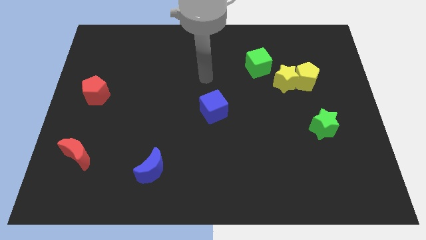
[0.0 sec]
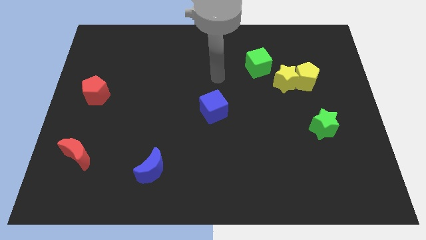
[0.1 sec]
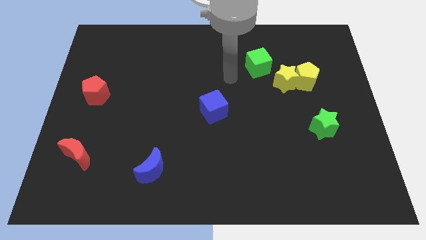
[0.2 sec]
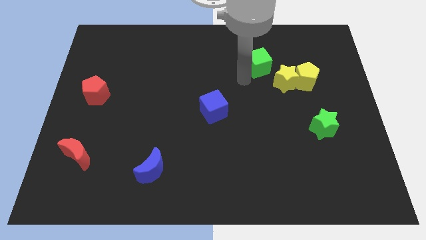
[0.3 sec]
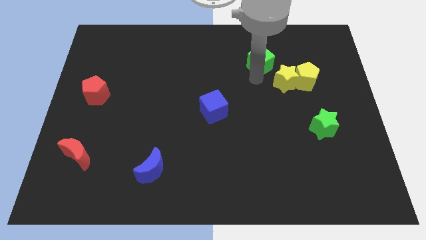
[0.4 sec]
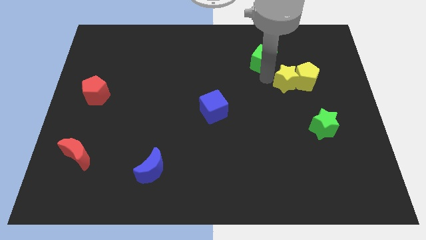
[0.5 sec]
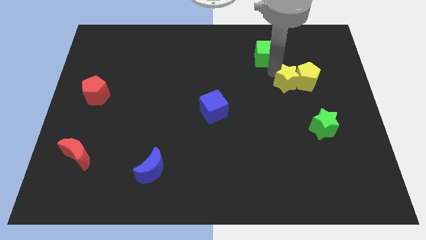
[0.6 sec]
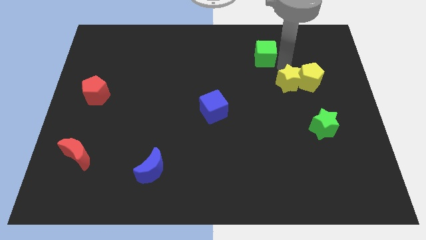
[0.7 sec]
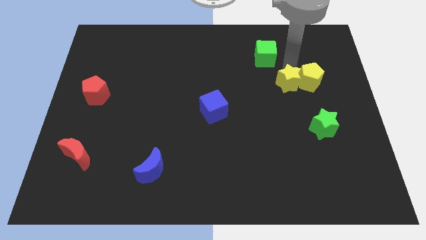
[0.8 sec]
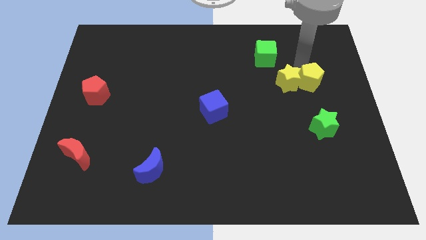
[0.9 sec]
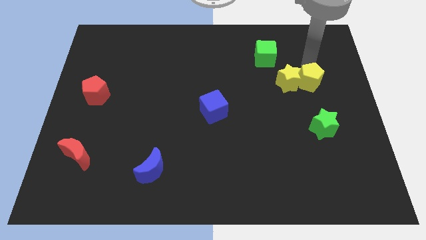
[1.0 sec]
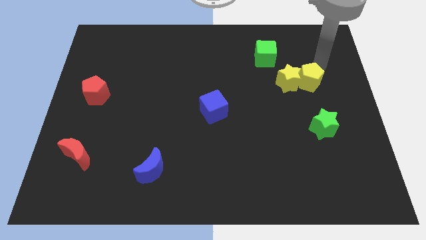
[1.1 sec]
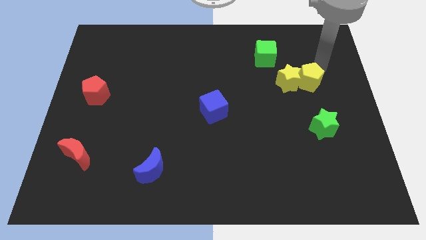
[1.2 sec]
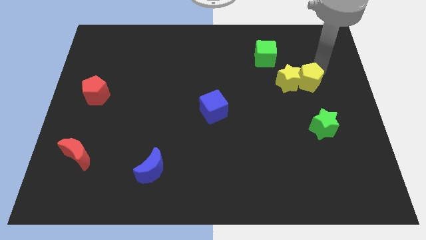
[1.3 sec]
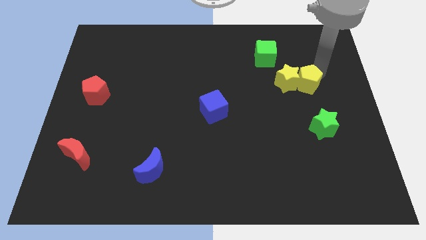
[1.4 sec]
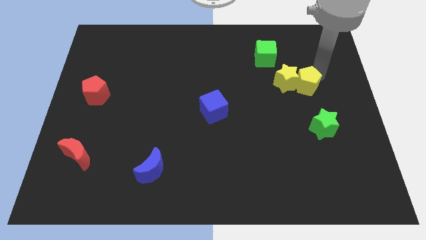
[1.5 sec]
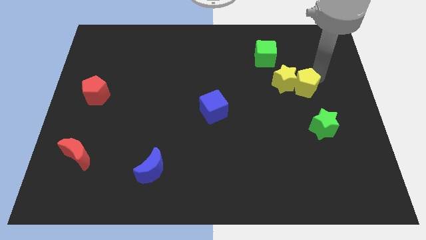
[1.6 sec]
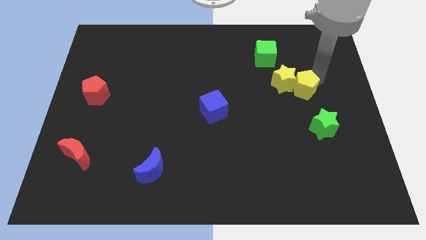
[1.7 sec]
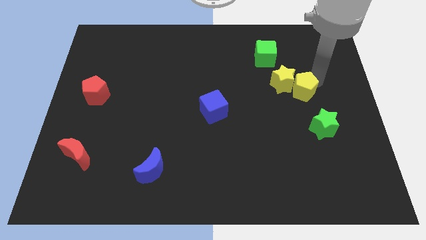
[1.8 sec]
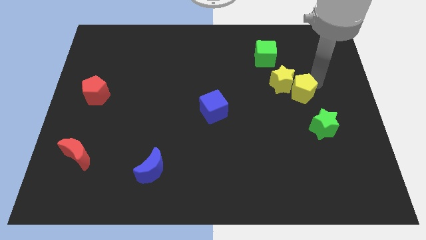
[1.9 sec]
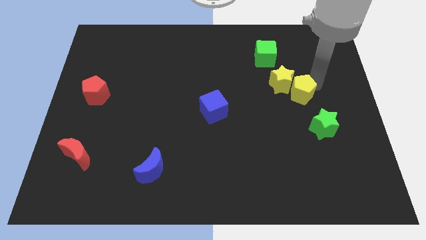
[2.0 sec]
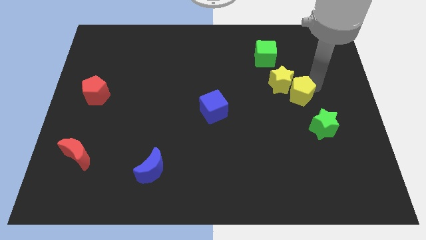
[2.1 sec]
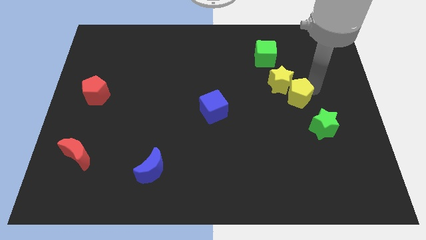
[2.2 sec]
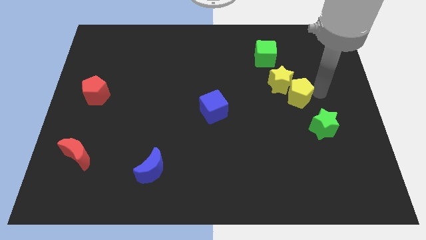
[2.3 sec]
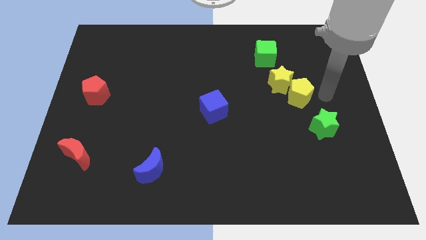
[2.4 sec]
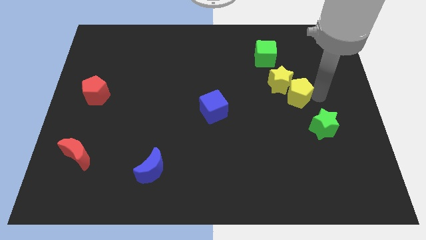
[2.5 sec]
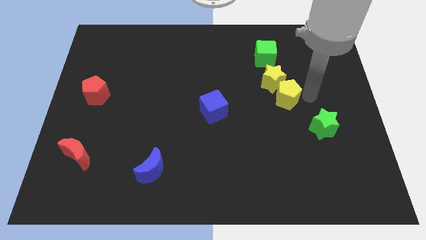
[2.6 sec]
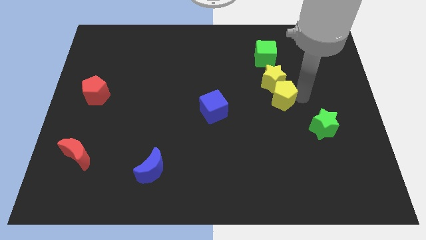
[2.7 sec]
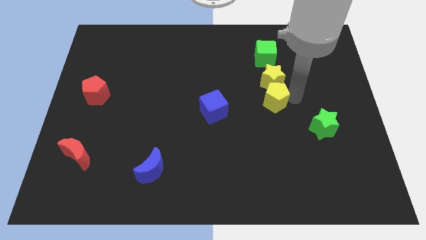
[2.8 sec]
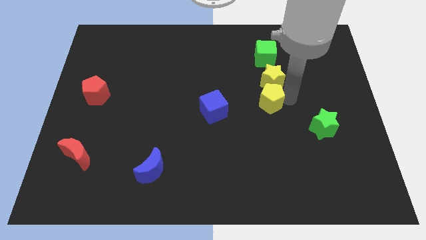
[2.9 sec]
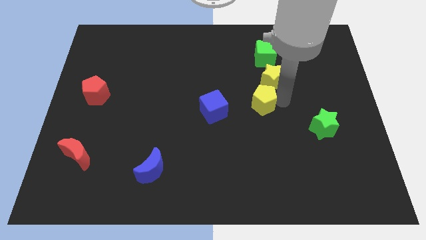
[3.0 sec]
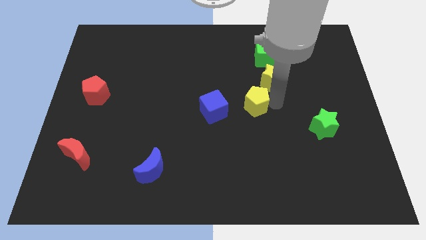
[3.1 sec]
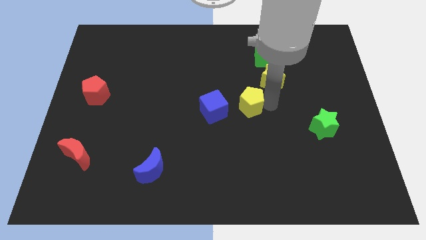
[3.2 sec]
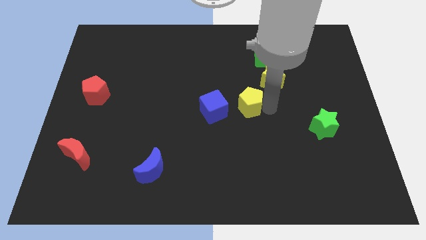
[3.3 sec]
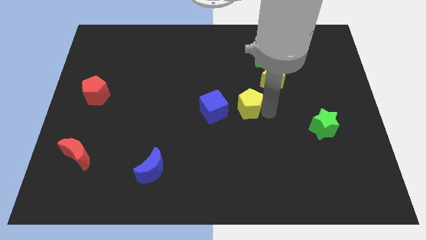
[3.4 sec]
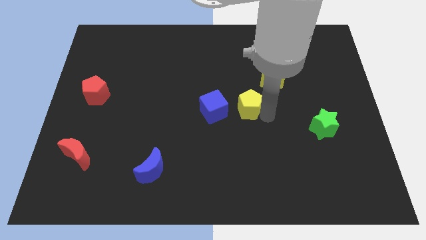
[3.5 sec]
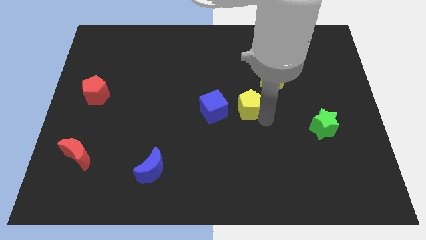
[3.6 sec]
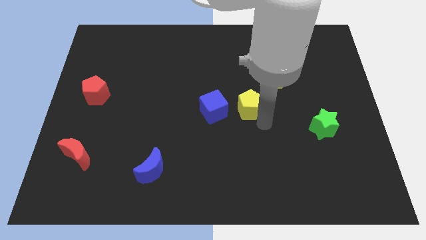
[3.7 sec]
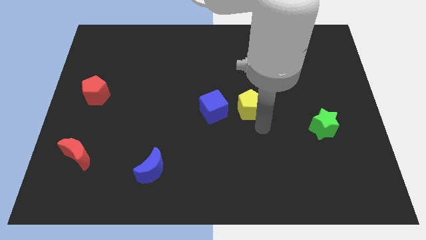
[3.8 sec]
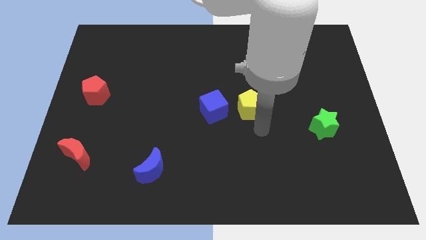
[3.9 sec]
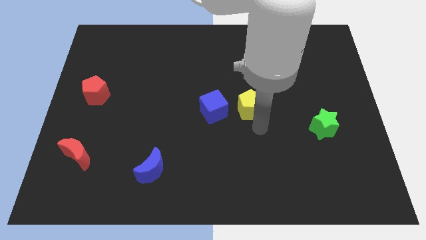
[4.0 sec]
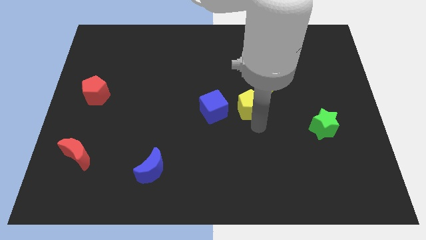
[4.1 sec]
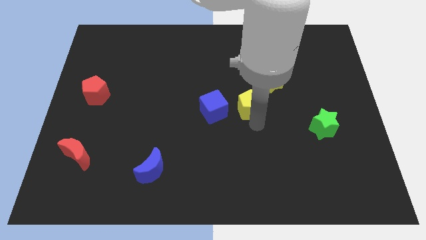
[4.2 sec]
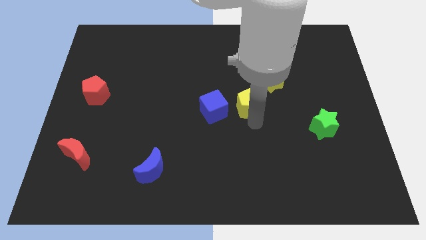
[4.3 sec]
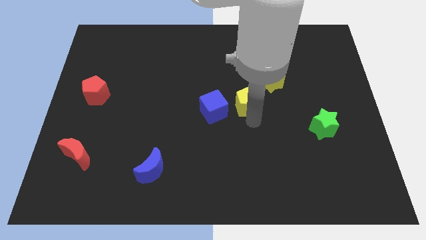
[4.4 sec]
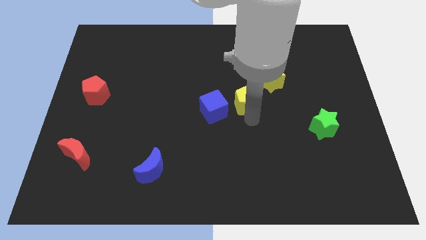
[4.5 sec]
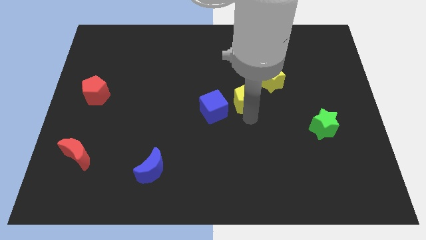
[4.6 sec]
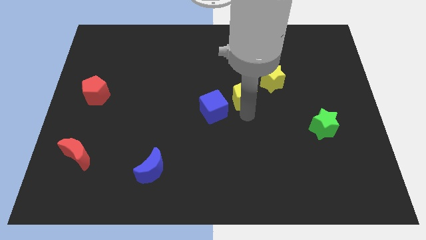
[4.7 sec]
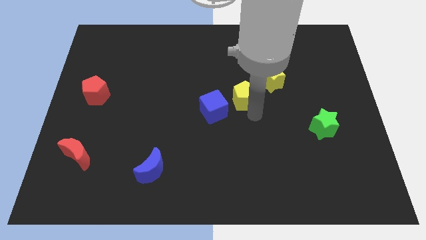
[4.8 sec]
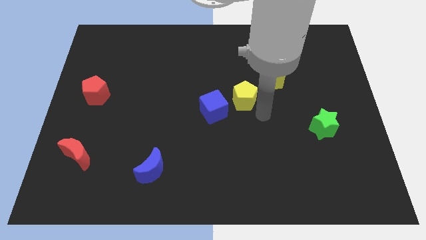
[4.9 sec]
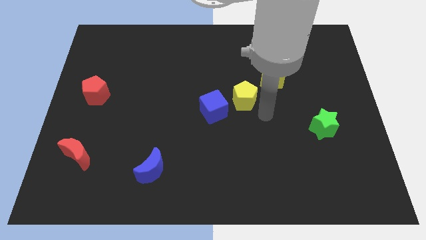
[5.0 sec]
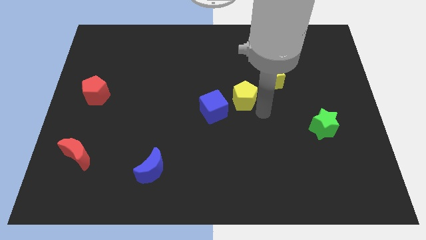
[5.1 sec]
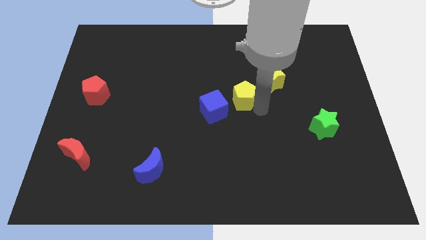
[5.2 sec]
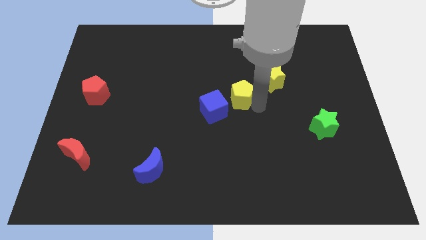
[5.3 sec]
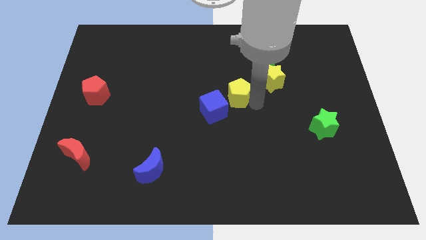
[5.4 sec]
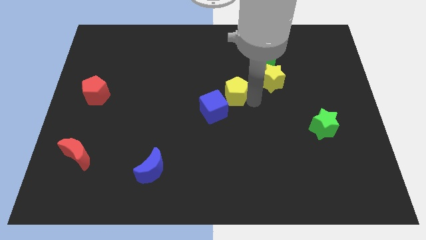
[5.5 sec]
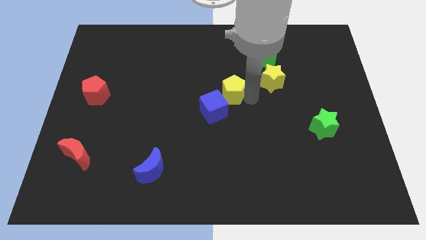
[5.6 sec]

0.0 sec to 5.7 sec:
put the yellow pentagon to the top side of the blue cube

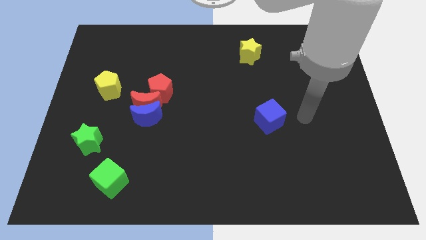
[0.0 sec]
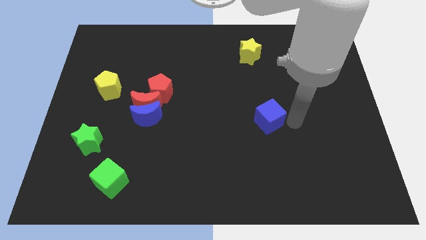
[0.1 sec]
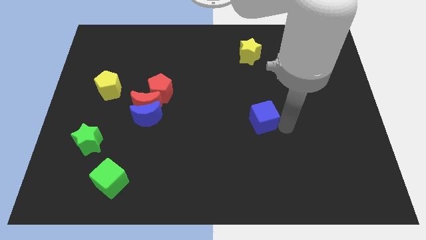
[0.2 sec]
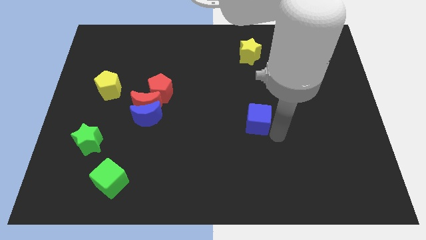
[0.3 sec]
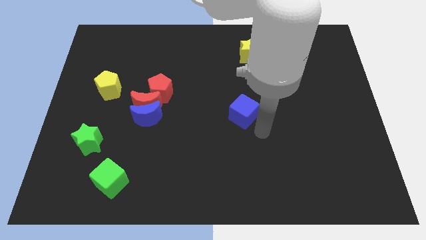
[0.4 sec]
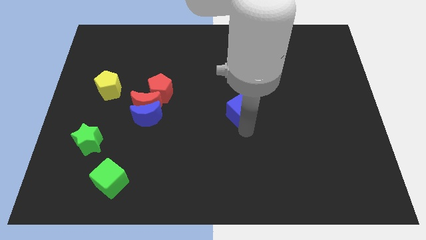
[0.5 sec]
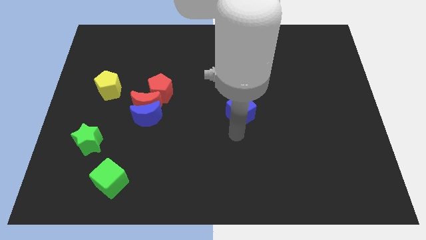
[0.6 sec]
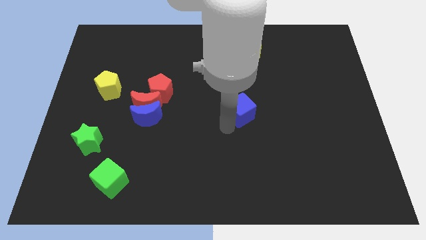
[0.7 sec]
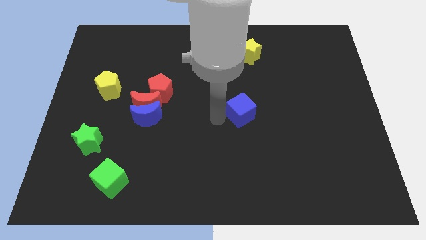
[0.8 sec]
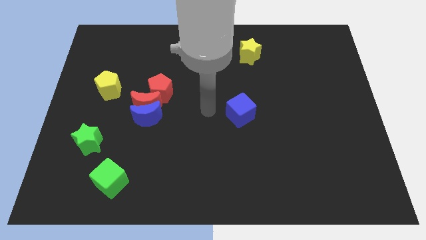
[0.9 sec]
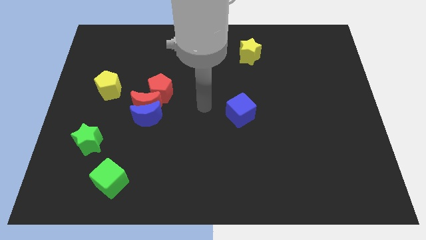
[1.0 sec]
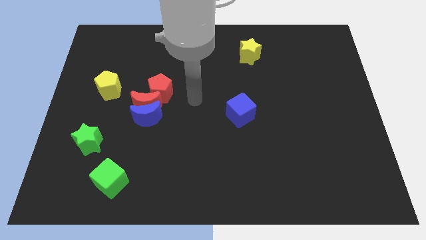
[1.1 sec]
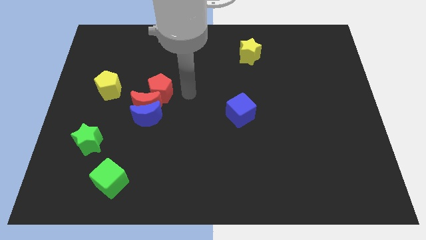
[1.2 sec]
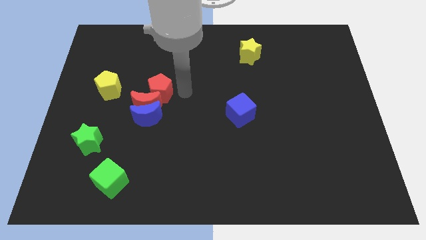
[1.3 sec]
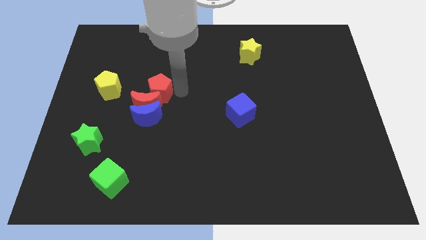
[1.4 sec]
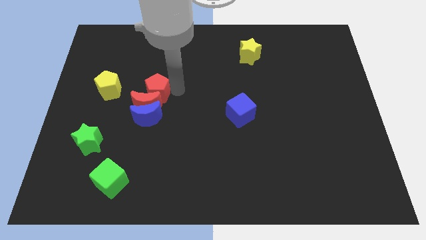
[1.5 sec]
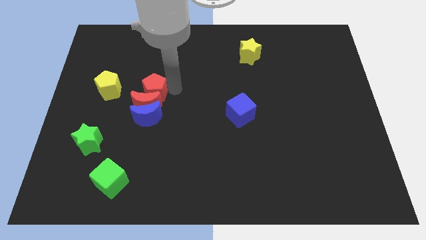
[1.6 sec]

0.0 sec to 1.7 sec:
push the red pentagon to the top left of the red moon
